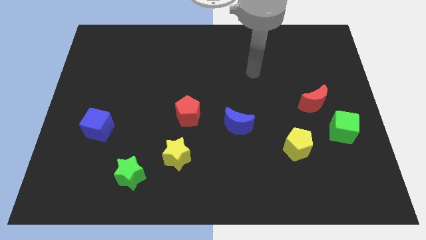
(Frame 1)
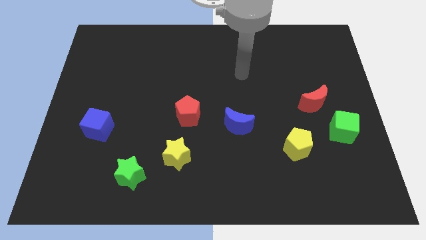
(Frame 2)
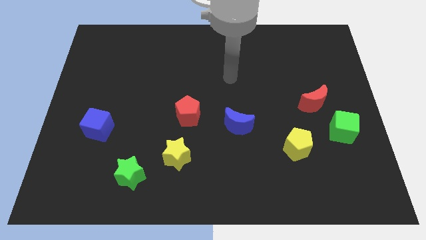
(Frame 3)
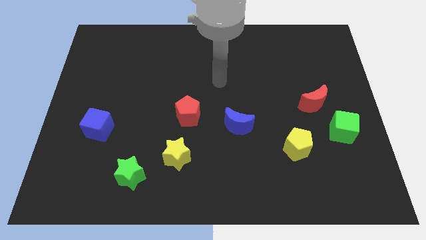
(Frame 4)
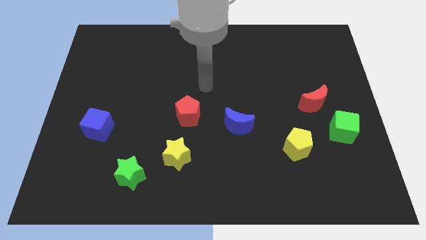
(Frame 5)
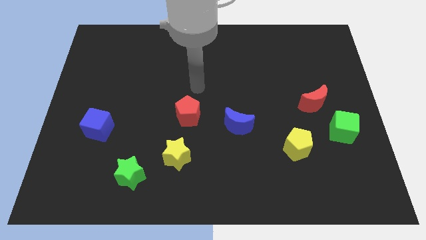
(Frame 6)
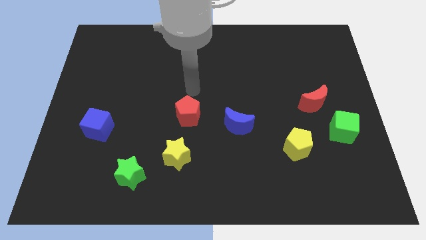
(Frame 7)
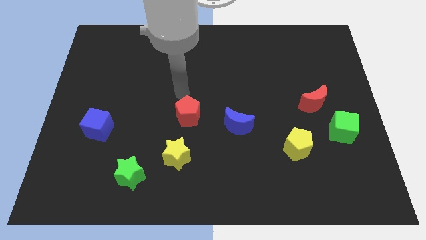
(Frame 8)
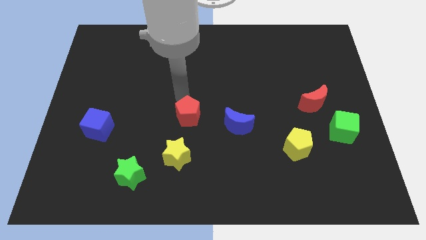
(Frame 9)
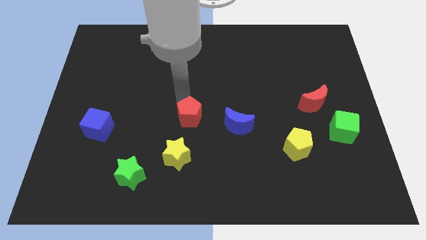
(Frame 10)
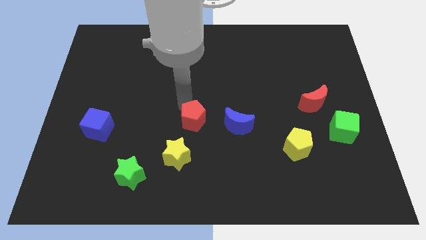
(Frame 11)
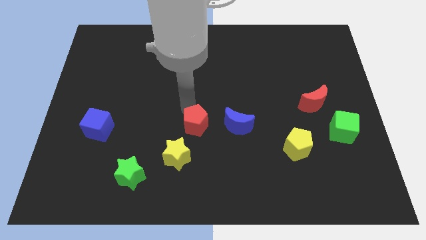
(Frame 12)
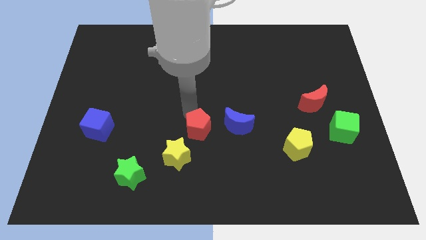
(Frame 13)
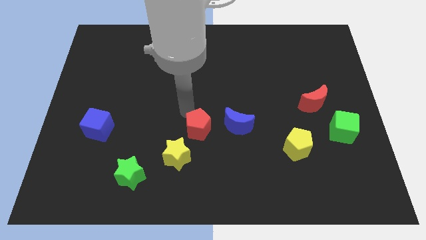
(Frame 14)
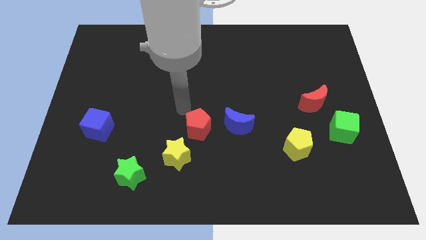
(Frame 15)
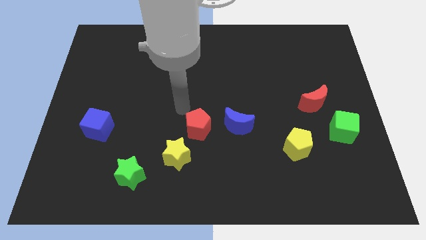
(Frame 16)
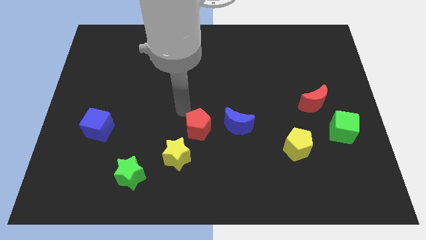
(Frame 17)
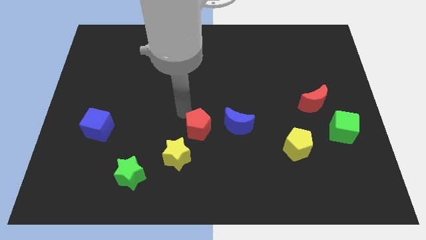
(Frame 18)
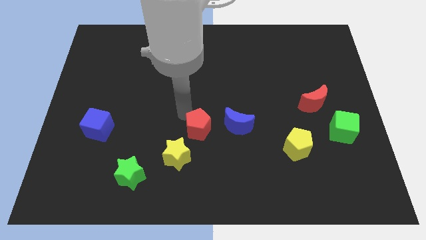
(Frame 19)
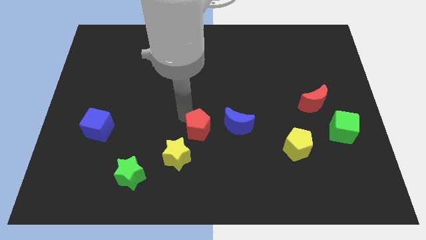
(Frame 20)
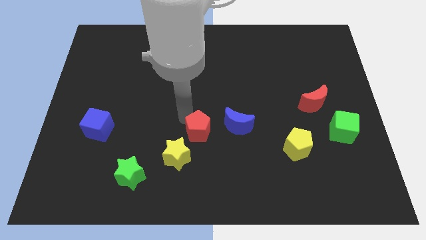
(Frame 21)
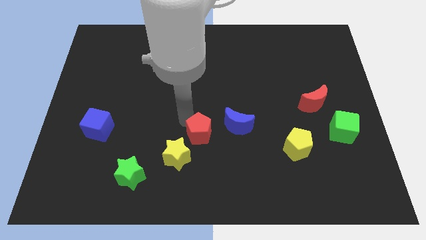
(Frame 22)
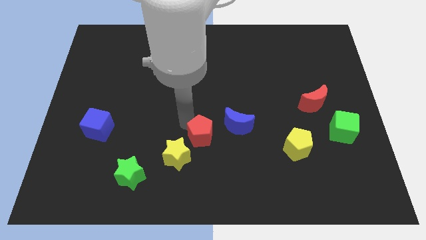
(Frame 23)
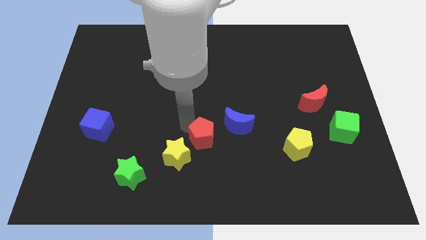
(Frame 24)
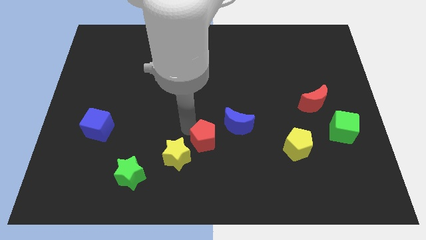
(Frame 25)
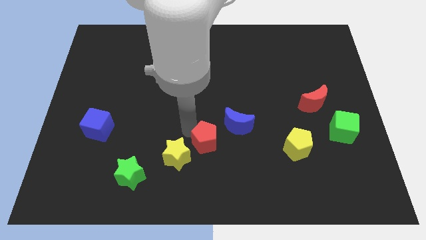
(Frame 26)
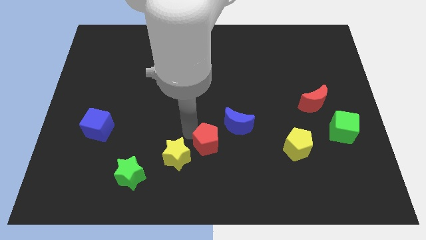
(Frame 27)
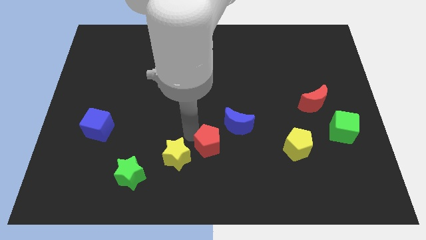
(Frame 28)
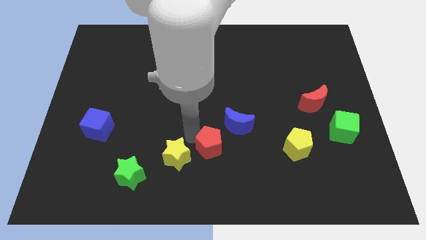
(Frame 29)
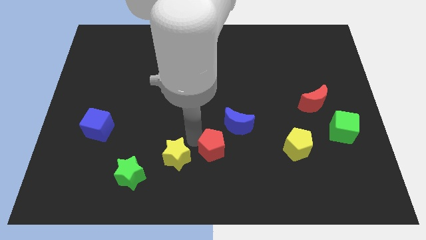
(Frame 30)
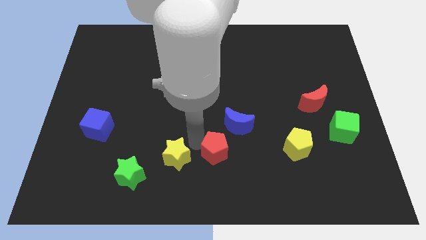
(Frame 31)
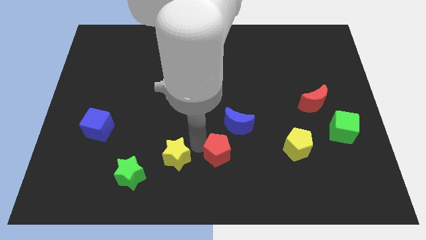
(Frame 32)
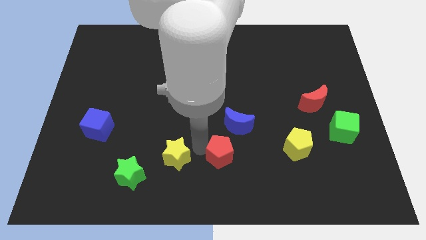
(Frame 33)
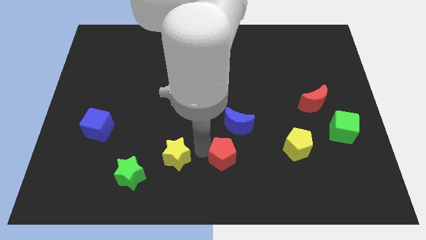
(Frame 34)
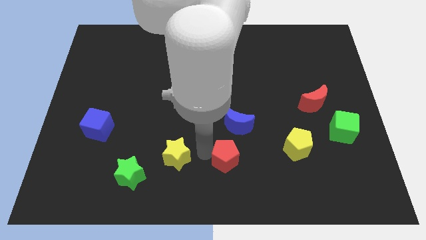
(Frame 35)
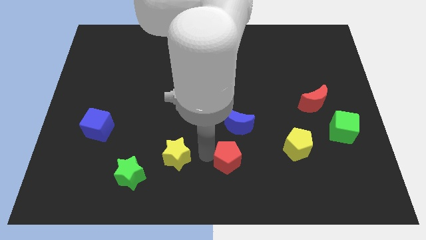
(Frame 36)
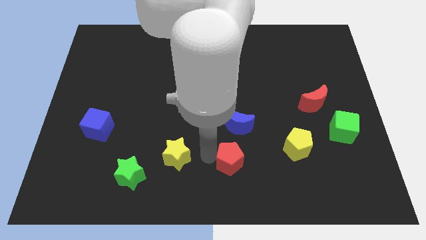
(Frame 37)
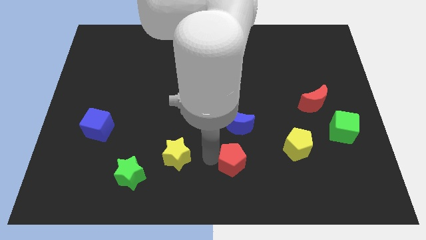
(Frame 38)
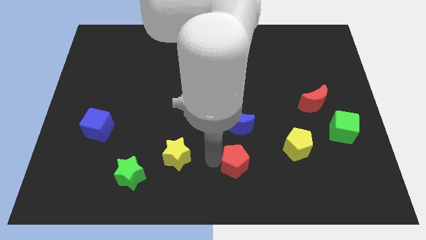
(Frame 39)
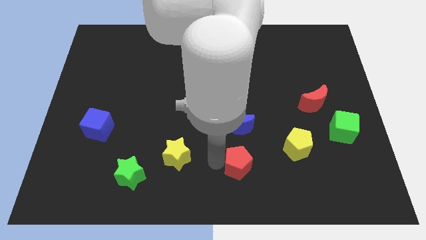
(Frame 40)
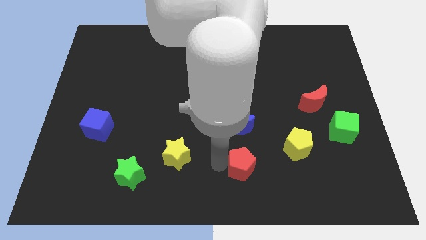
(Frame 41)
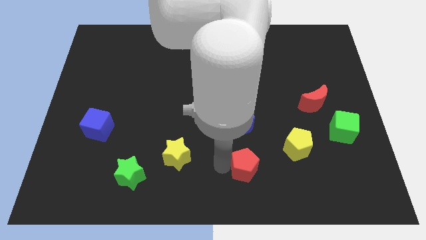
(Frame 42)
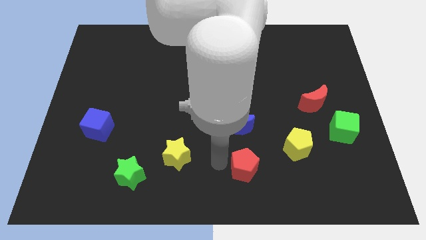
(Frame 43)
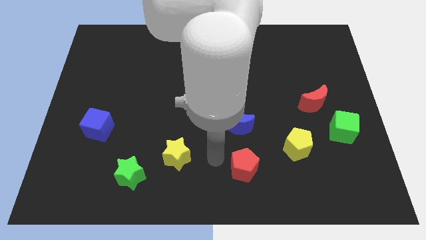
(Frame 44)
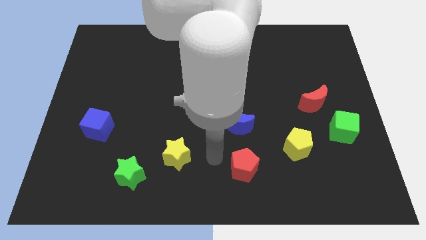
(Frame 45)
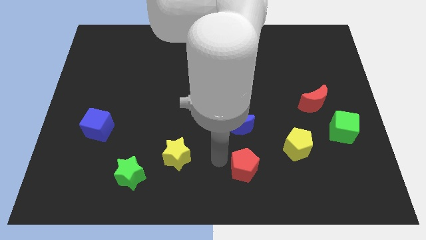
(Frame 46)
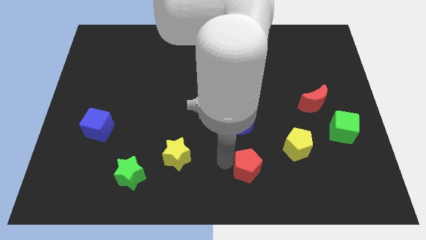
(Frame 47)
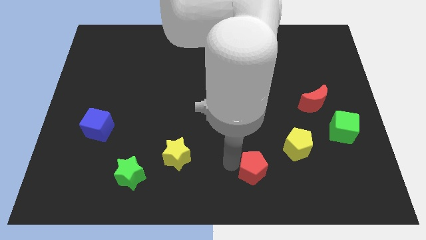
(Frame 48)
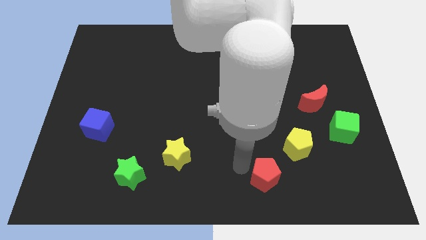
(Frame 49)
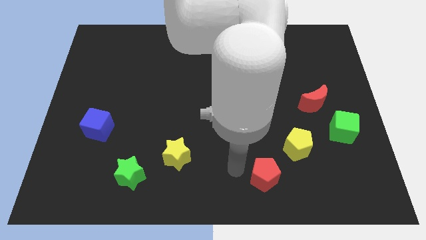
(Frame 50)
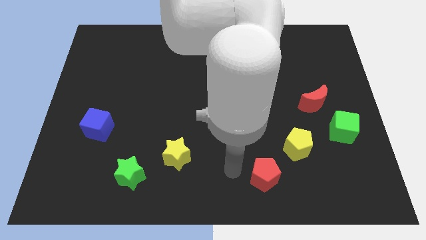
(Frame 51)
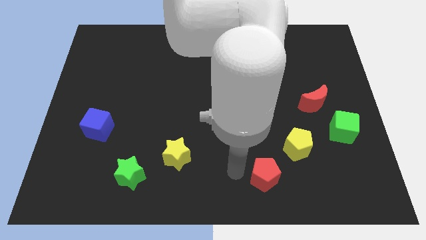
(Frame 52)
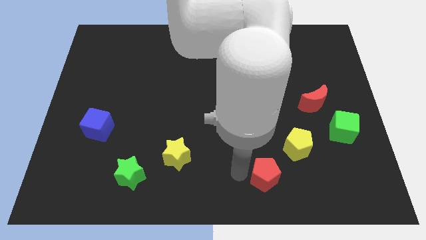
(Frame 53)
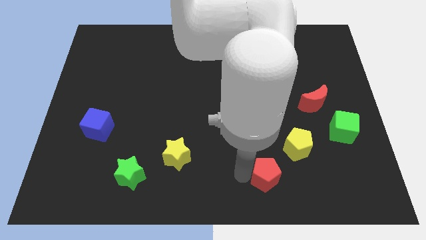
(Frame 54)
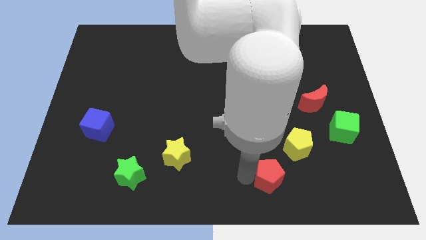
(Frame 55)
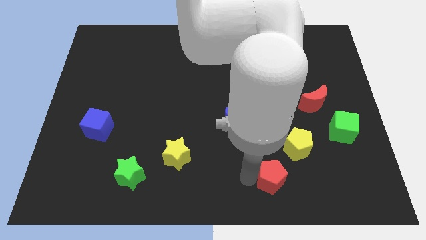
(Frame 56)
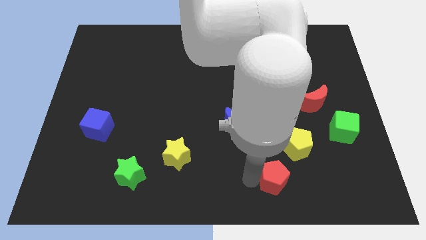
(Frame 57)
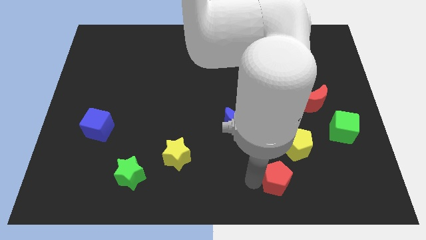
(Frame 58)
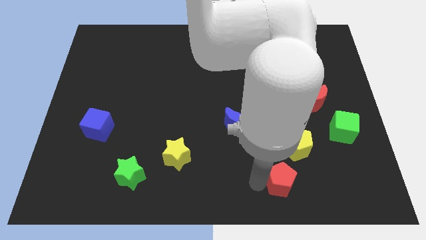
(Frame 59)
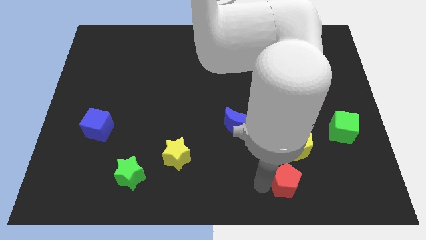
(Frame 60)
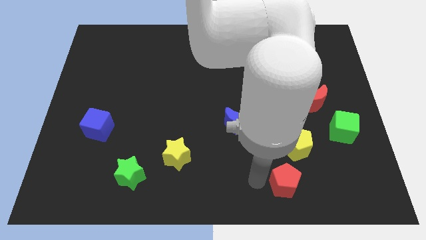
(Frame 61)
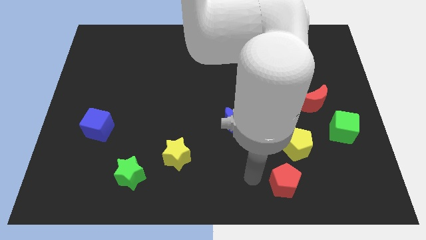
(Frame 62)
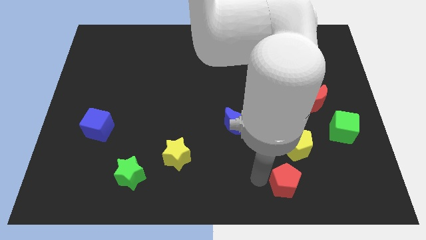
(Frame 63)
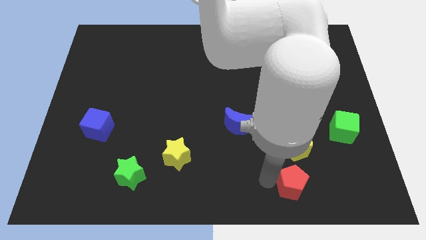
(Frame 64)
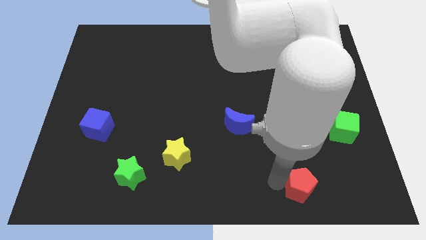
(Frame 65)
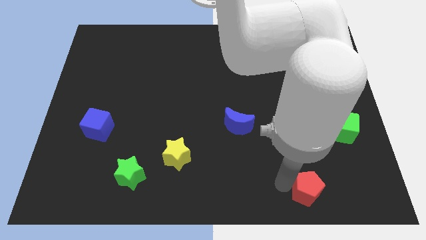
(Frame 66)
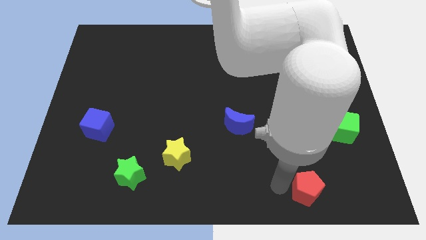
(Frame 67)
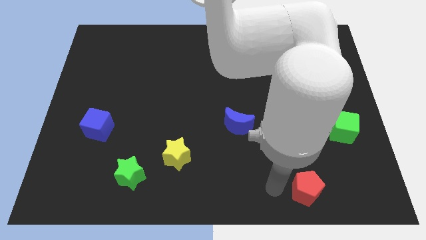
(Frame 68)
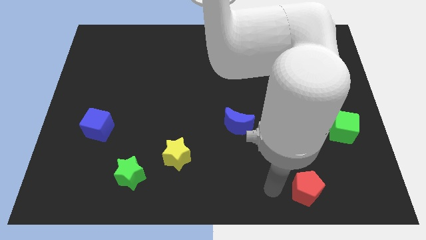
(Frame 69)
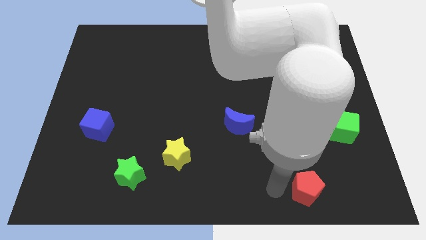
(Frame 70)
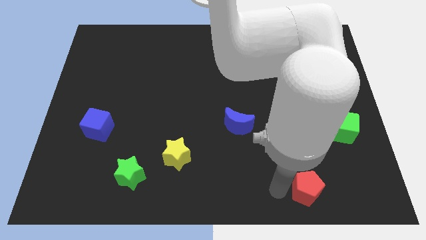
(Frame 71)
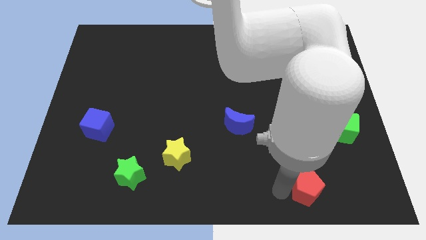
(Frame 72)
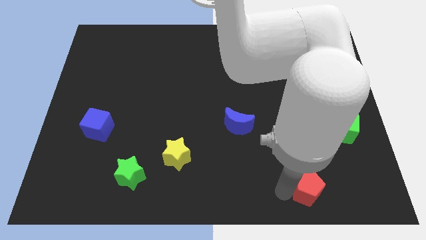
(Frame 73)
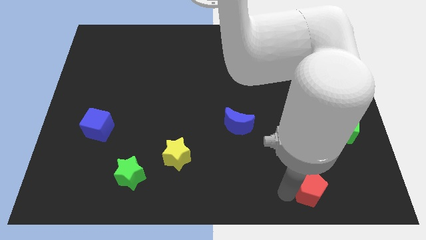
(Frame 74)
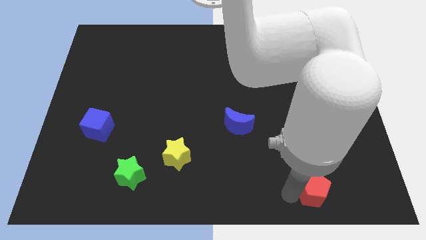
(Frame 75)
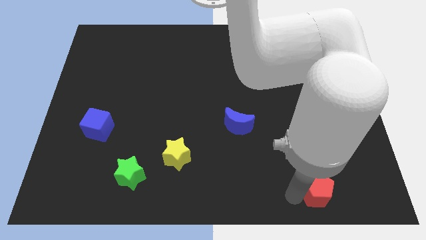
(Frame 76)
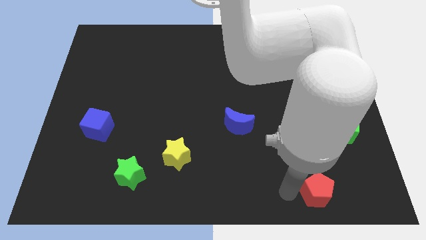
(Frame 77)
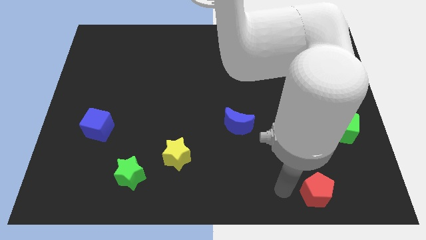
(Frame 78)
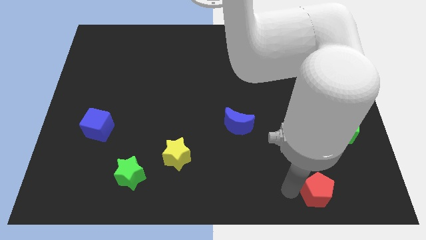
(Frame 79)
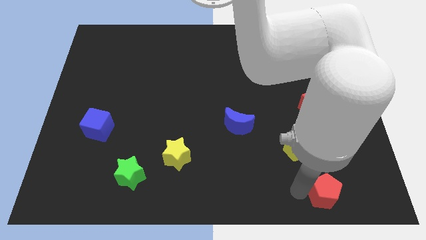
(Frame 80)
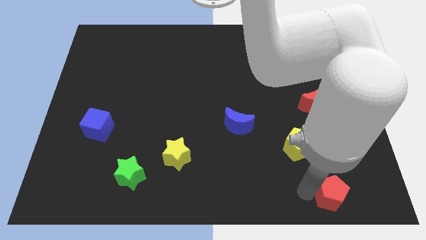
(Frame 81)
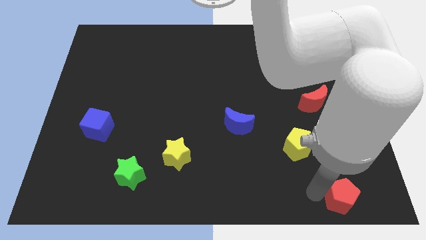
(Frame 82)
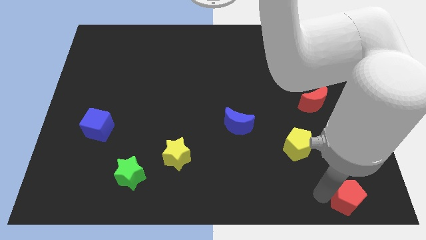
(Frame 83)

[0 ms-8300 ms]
slide the red pentagon to the lower right corner
